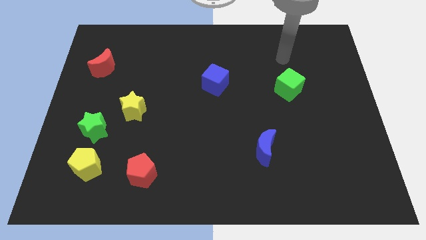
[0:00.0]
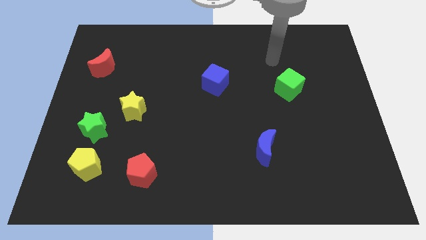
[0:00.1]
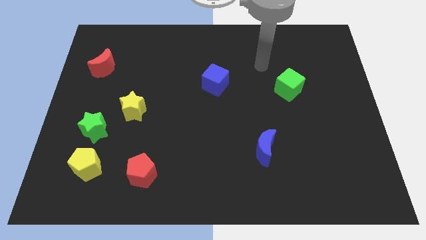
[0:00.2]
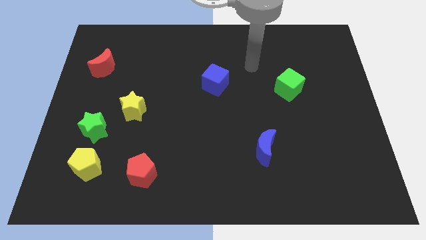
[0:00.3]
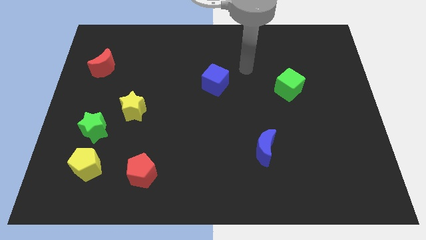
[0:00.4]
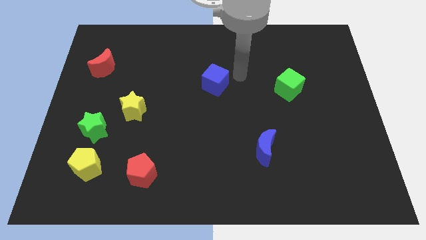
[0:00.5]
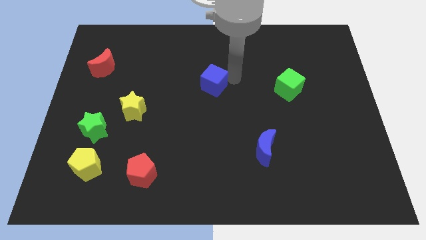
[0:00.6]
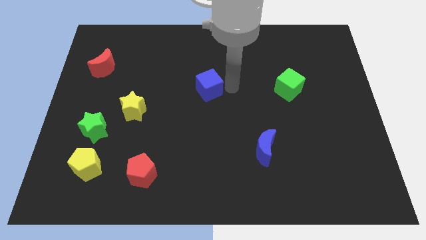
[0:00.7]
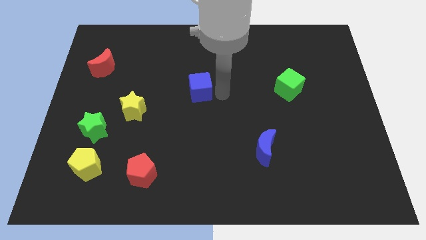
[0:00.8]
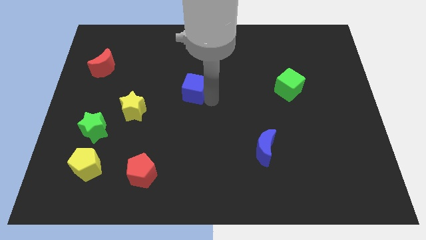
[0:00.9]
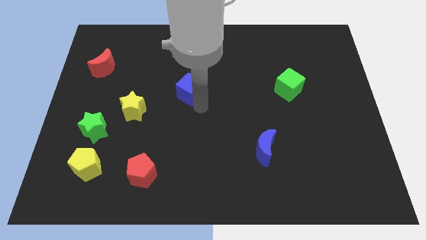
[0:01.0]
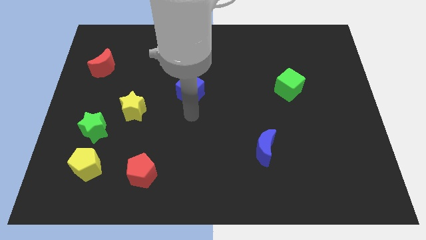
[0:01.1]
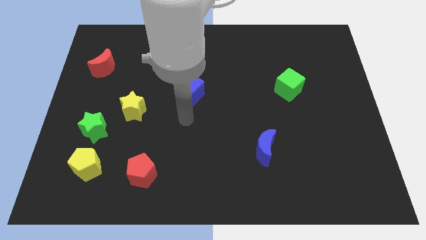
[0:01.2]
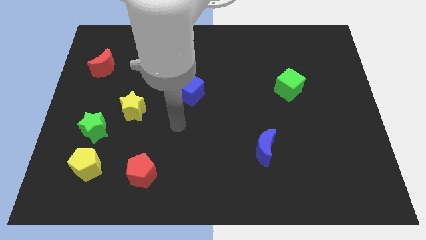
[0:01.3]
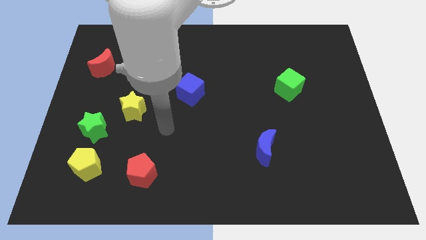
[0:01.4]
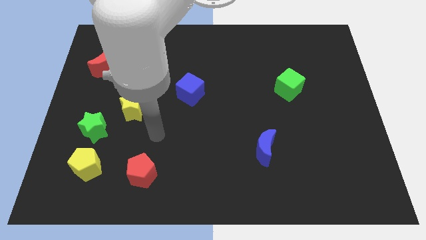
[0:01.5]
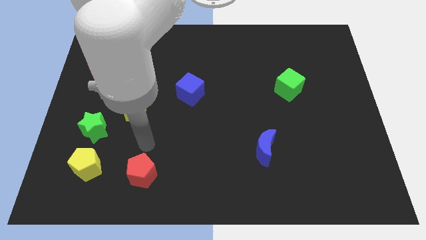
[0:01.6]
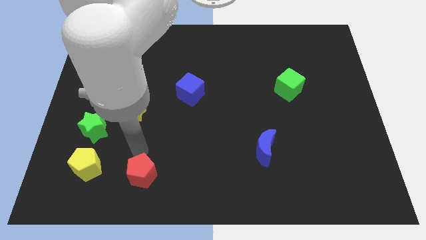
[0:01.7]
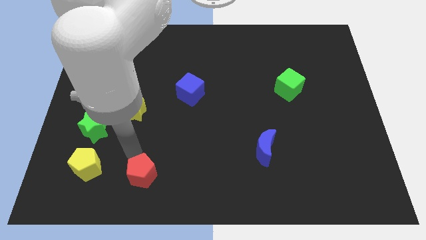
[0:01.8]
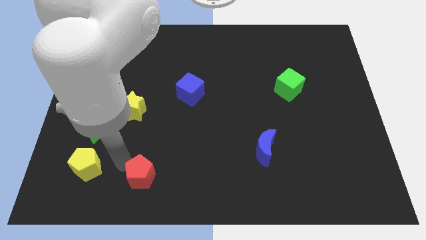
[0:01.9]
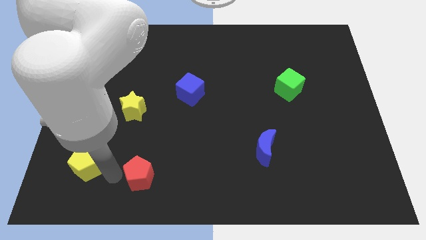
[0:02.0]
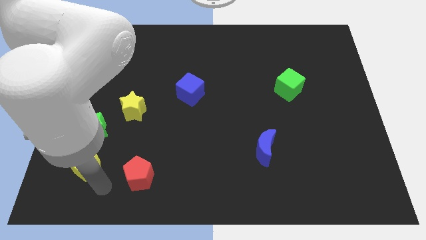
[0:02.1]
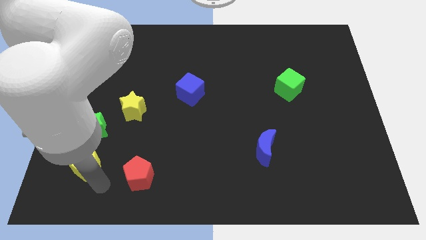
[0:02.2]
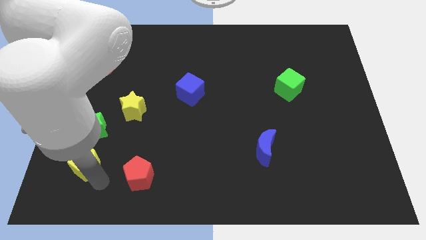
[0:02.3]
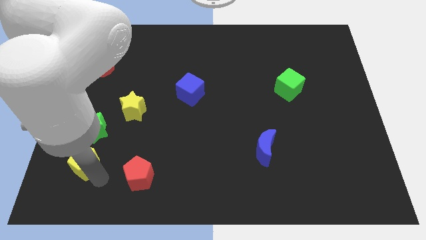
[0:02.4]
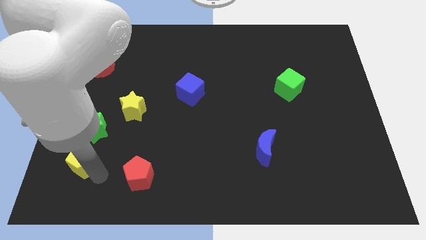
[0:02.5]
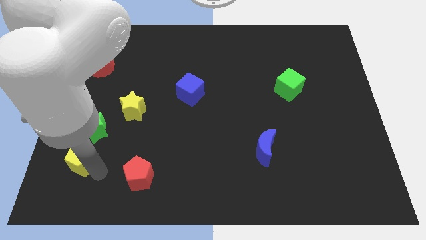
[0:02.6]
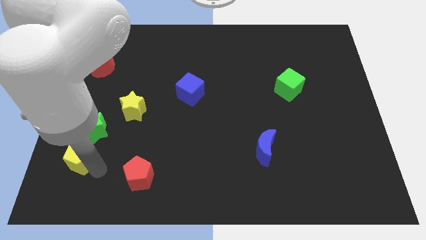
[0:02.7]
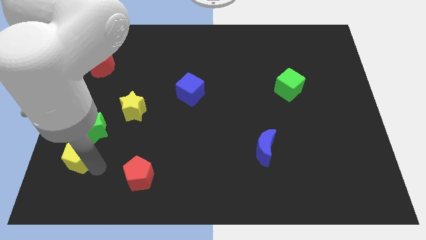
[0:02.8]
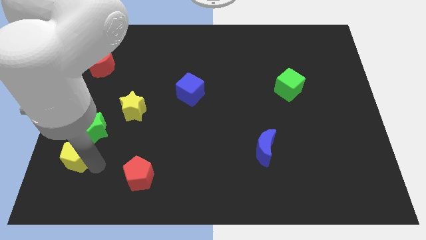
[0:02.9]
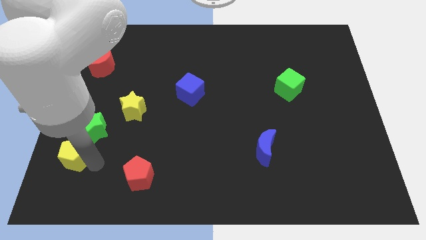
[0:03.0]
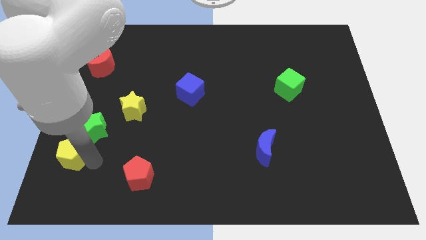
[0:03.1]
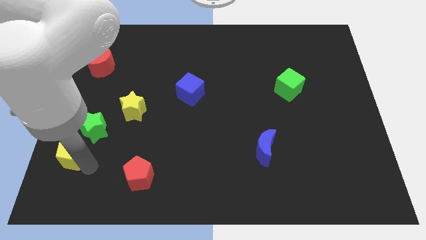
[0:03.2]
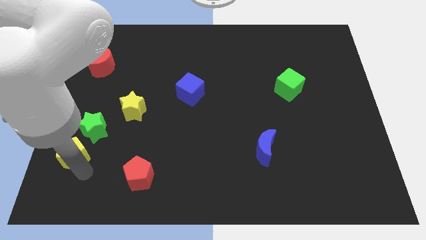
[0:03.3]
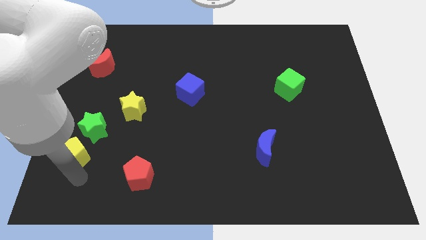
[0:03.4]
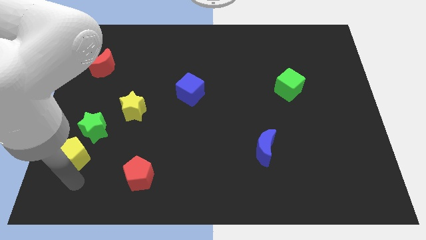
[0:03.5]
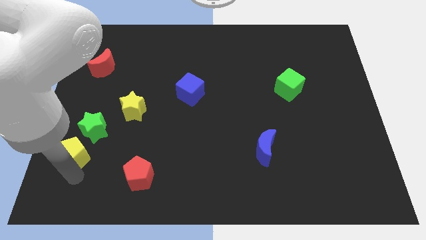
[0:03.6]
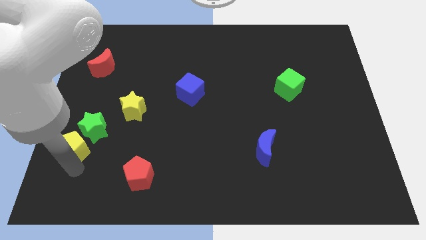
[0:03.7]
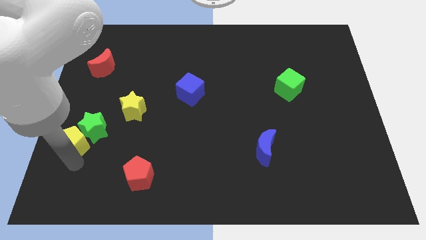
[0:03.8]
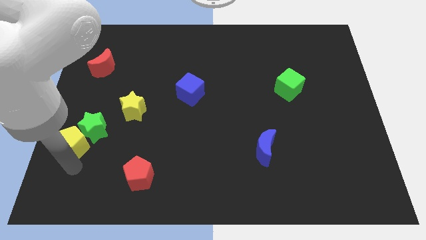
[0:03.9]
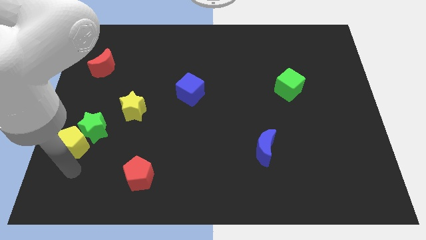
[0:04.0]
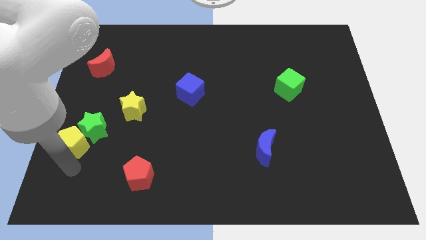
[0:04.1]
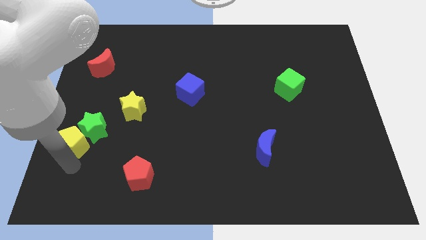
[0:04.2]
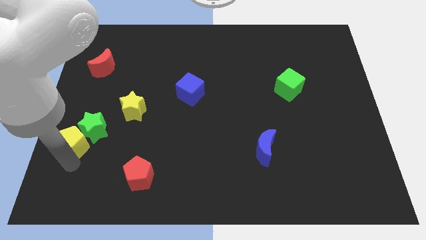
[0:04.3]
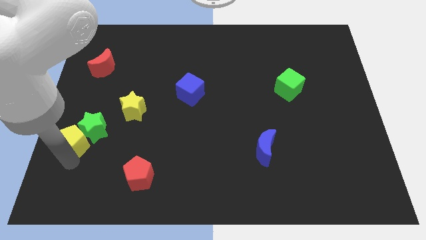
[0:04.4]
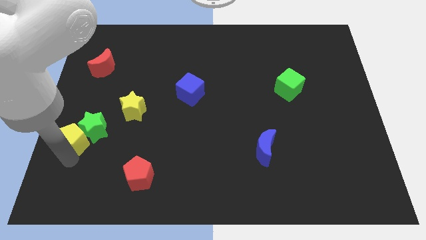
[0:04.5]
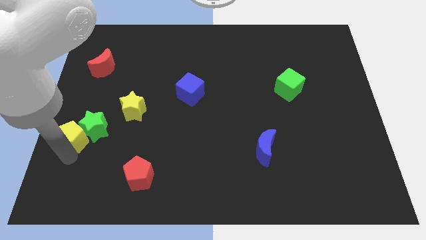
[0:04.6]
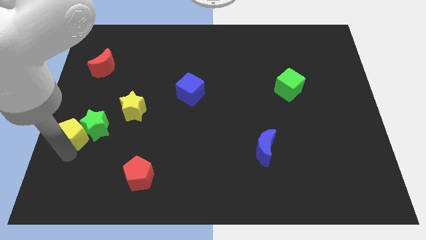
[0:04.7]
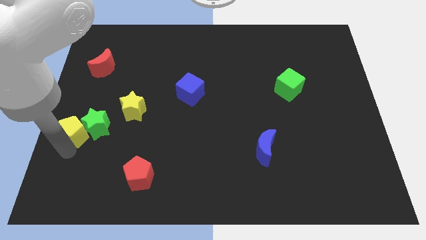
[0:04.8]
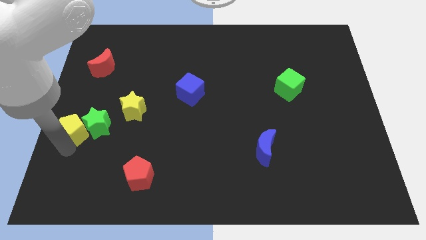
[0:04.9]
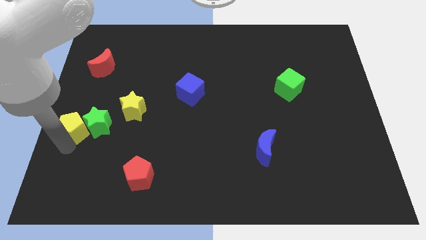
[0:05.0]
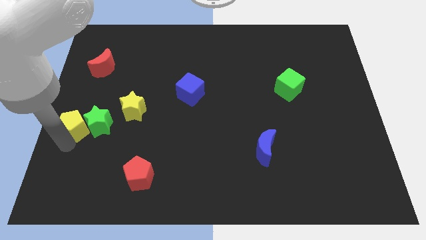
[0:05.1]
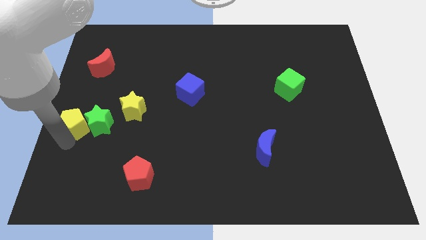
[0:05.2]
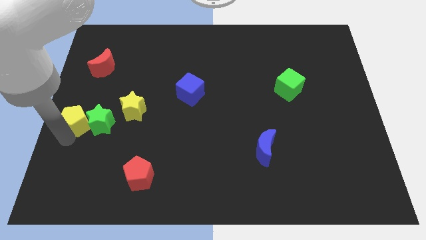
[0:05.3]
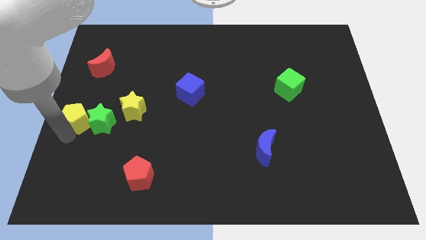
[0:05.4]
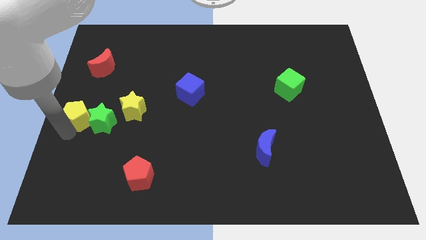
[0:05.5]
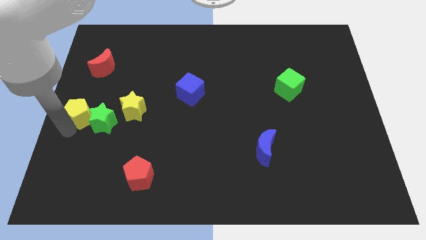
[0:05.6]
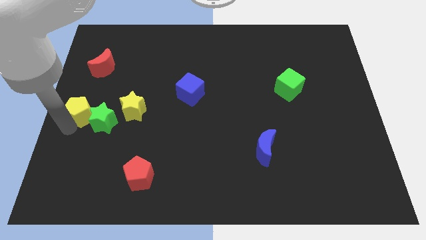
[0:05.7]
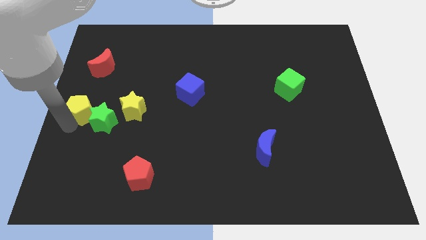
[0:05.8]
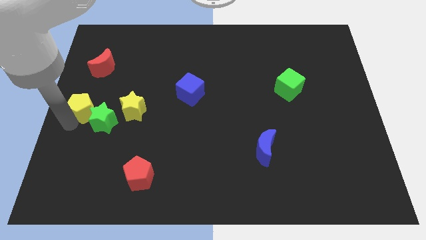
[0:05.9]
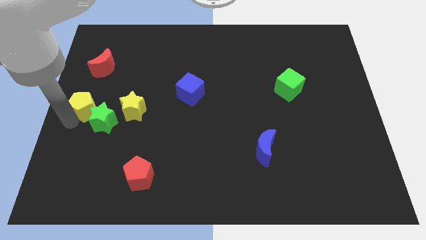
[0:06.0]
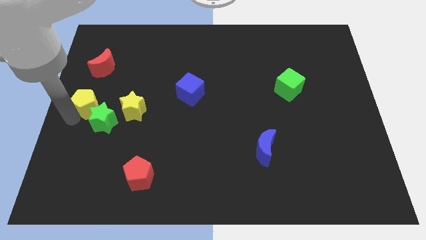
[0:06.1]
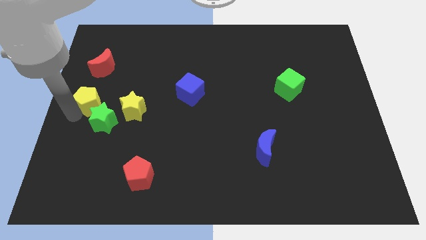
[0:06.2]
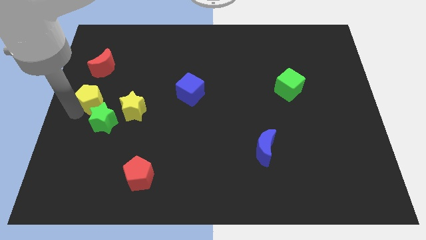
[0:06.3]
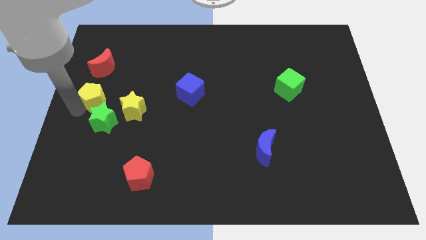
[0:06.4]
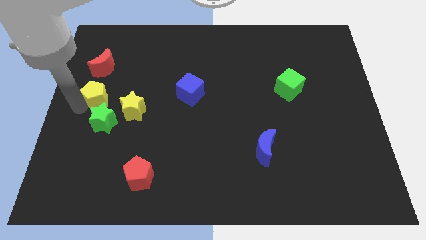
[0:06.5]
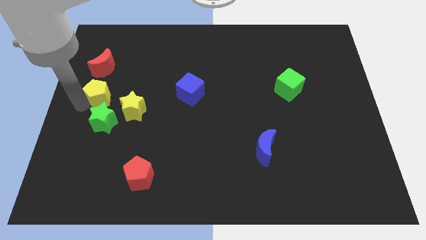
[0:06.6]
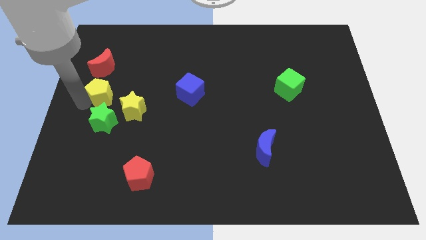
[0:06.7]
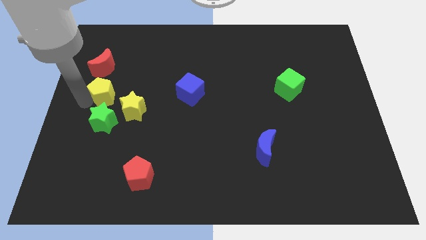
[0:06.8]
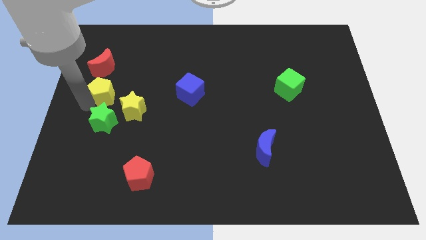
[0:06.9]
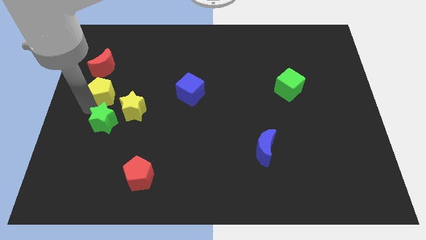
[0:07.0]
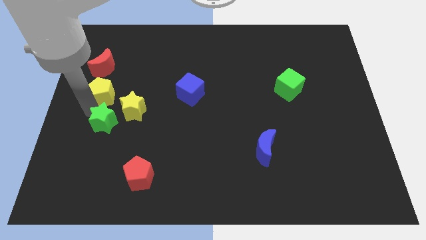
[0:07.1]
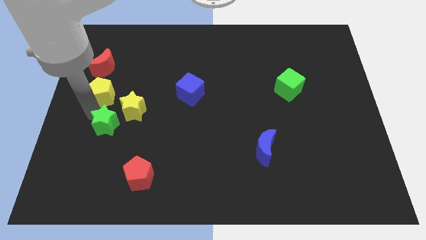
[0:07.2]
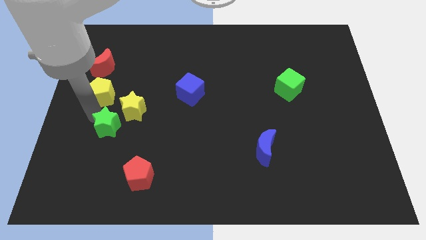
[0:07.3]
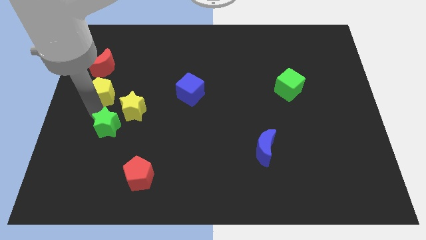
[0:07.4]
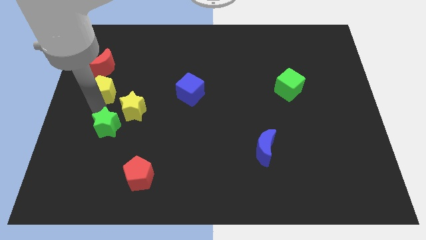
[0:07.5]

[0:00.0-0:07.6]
slide the yellow pentagon up

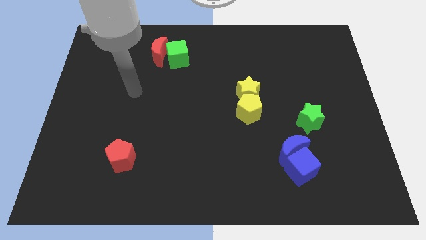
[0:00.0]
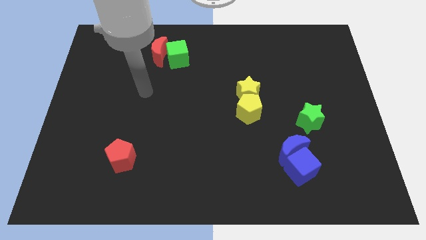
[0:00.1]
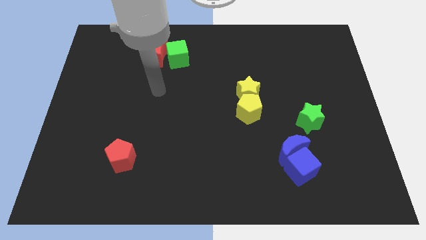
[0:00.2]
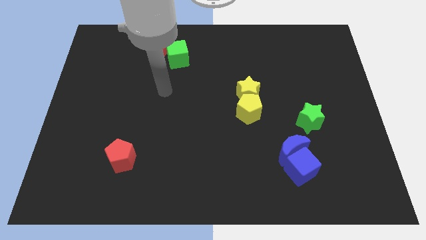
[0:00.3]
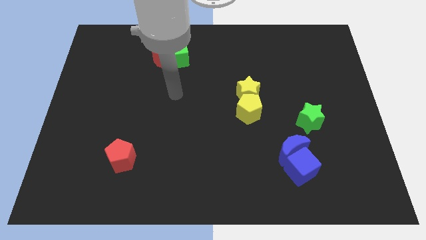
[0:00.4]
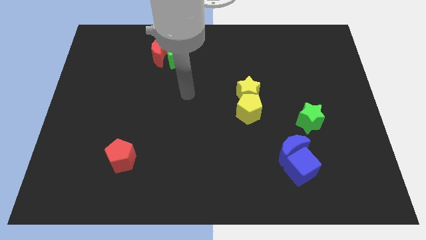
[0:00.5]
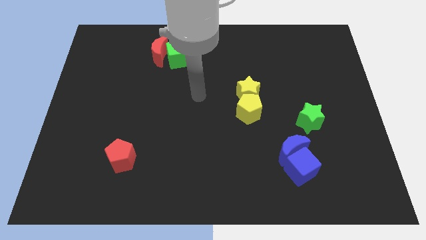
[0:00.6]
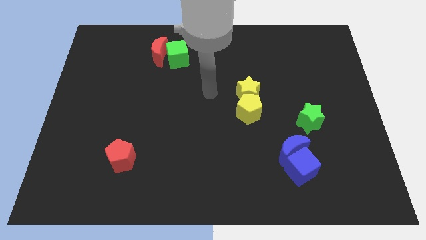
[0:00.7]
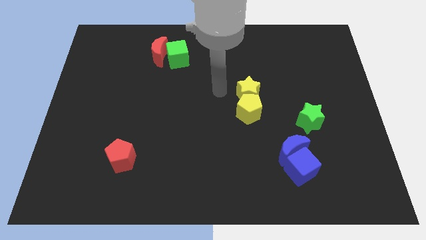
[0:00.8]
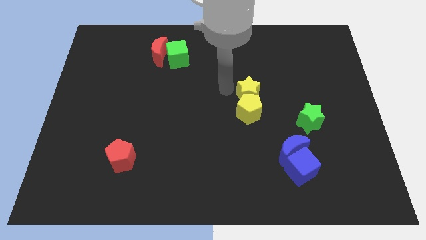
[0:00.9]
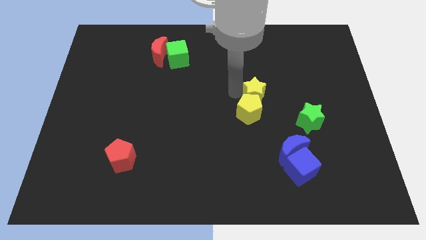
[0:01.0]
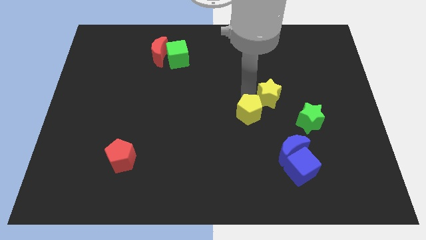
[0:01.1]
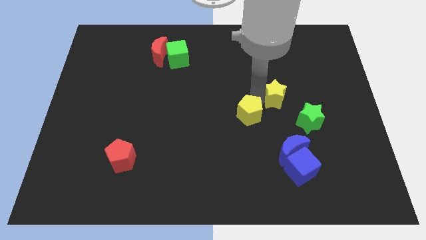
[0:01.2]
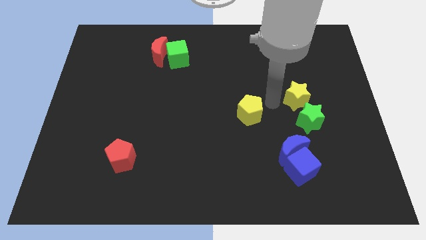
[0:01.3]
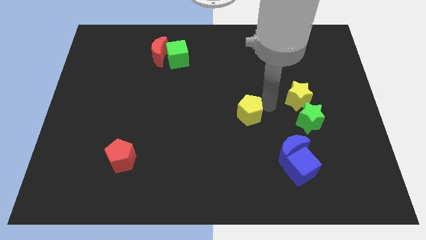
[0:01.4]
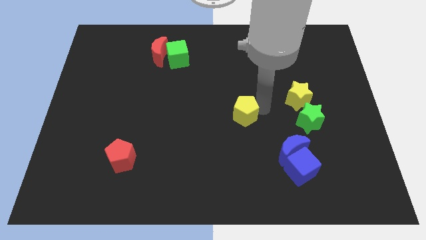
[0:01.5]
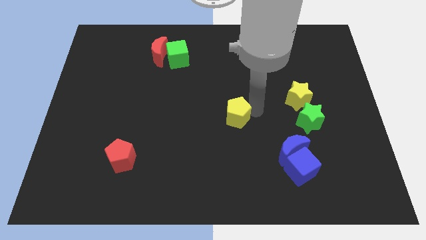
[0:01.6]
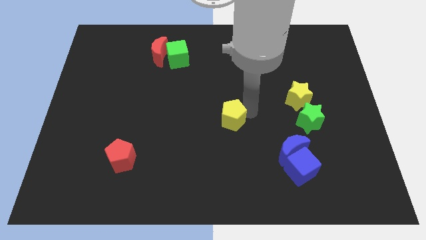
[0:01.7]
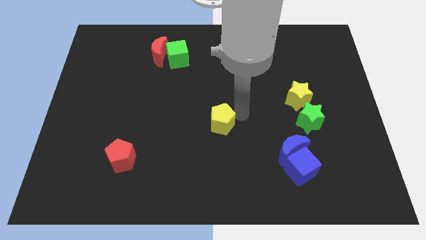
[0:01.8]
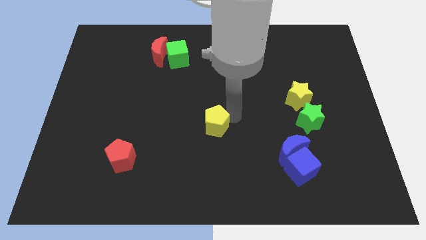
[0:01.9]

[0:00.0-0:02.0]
push the yellow pentagon a bit diagonally down and left
